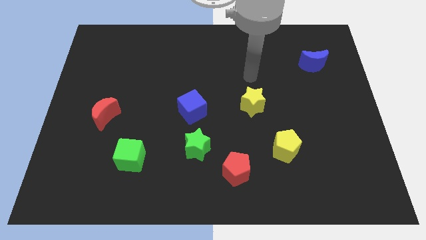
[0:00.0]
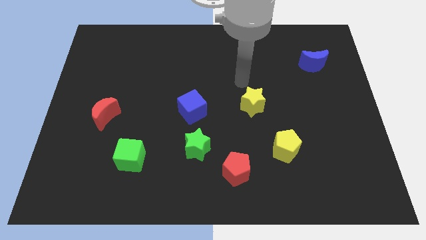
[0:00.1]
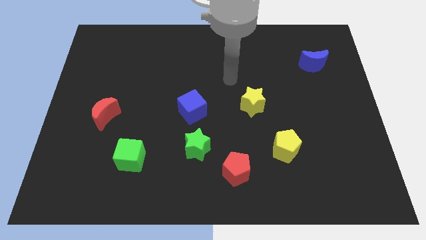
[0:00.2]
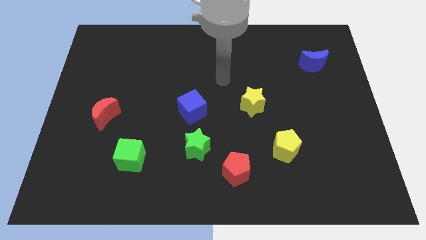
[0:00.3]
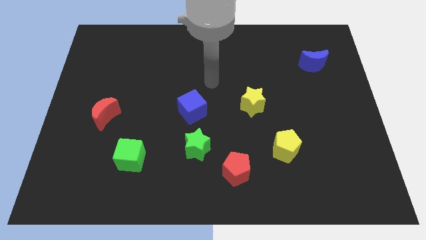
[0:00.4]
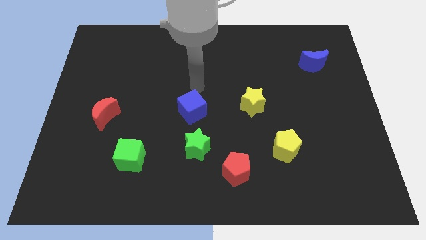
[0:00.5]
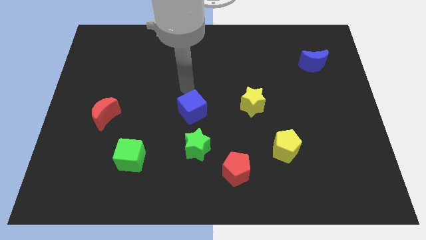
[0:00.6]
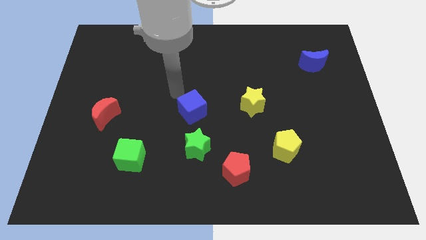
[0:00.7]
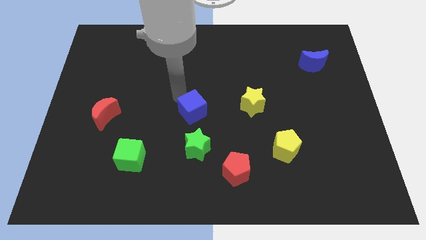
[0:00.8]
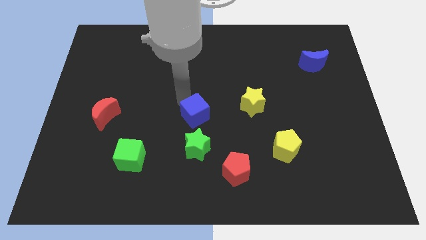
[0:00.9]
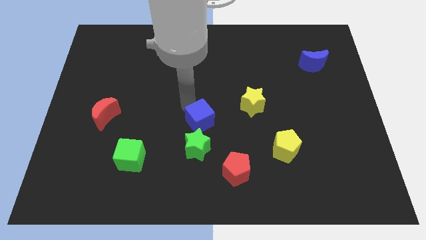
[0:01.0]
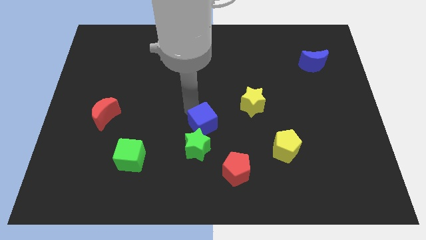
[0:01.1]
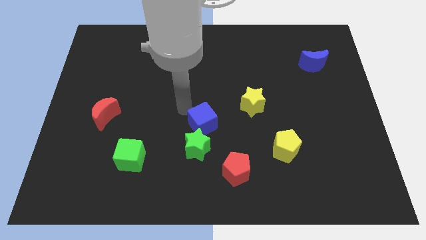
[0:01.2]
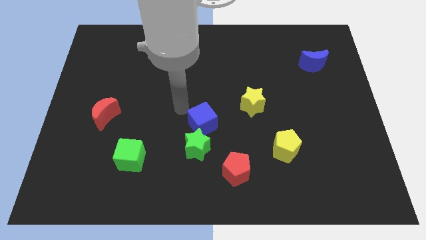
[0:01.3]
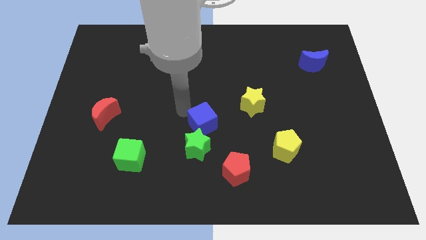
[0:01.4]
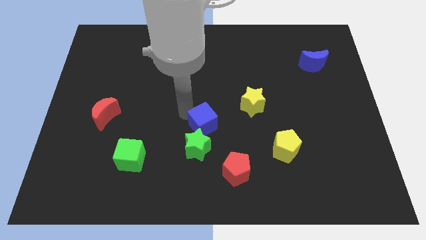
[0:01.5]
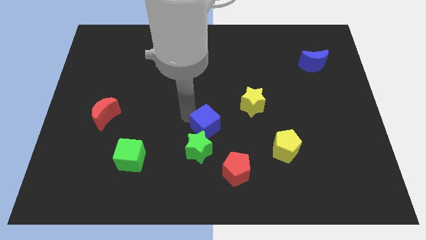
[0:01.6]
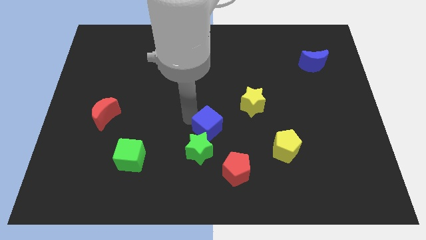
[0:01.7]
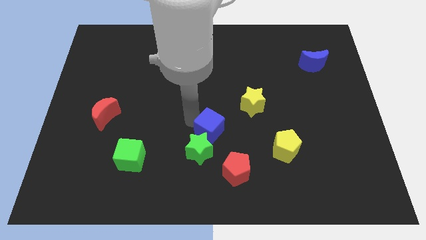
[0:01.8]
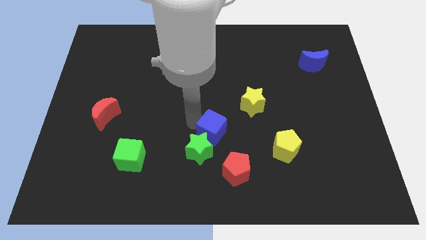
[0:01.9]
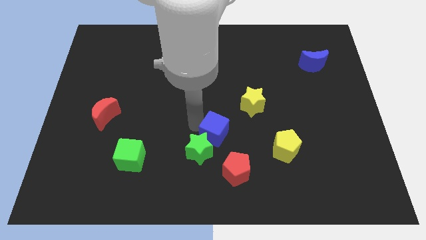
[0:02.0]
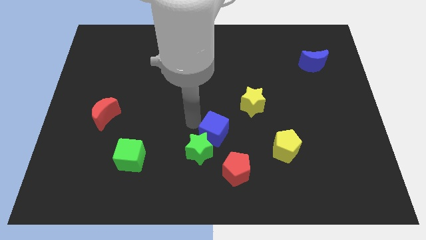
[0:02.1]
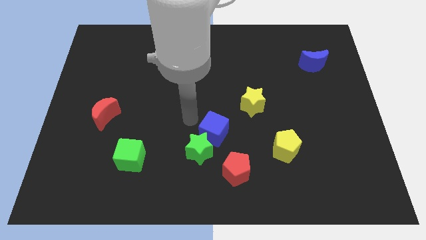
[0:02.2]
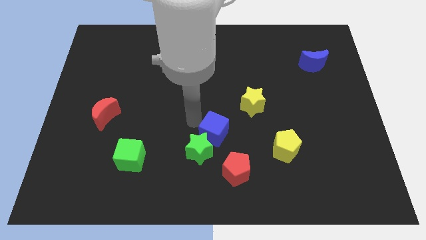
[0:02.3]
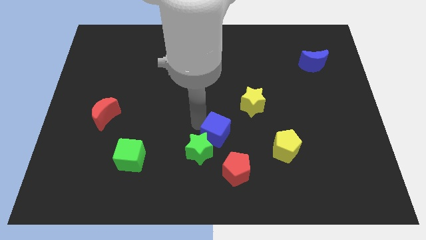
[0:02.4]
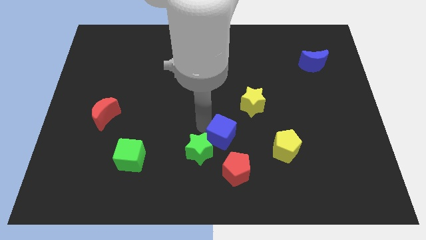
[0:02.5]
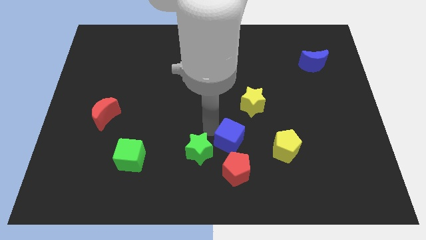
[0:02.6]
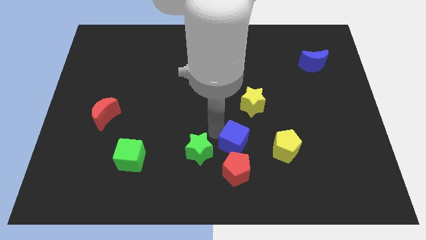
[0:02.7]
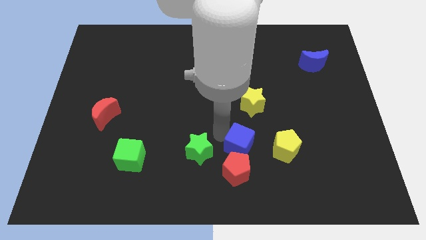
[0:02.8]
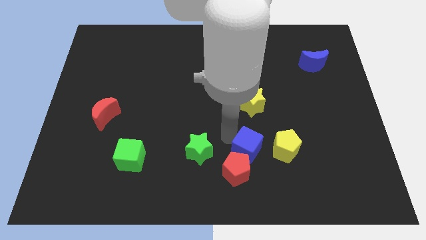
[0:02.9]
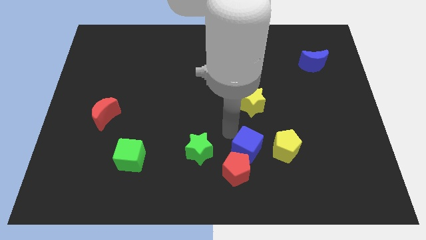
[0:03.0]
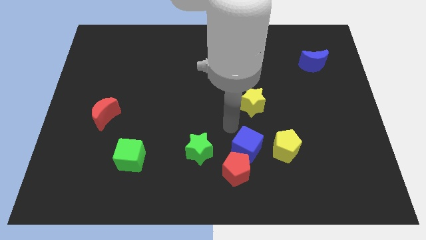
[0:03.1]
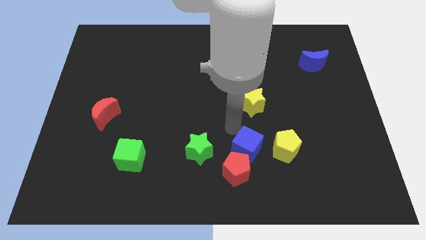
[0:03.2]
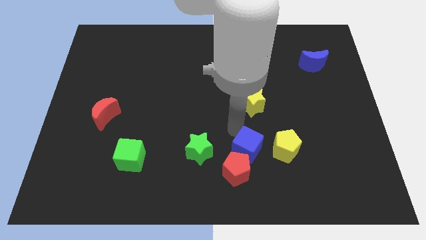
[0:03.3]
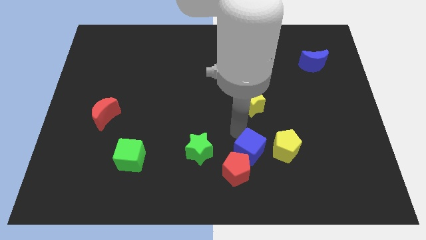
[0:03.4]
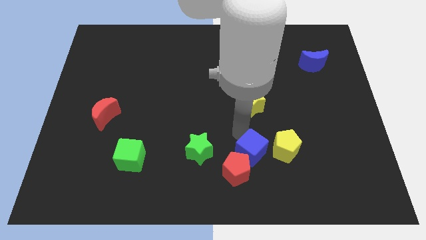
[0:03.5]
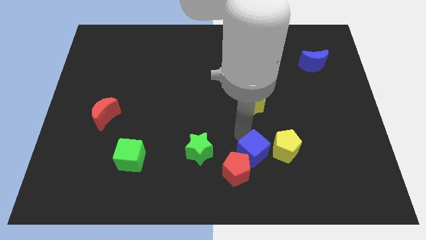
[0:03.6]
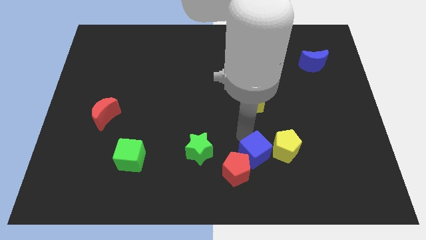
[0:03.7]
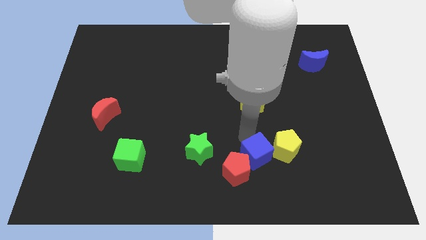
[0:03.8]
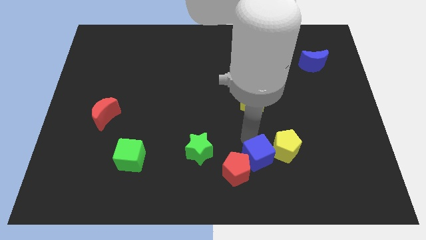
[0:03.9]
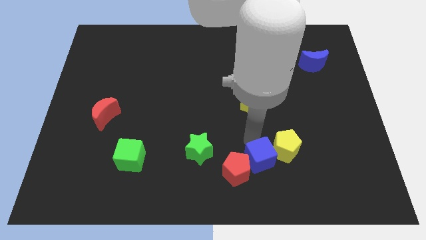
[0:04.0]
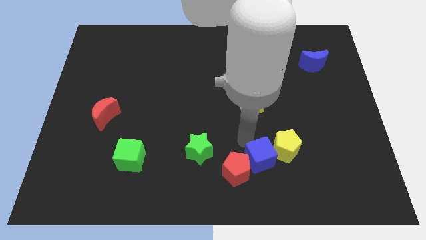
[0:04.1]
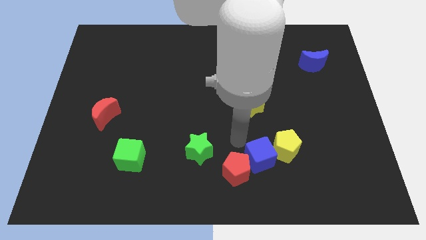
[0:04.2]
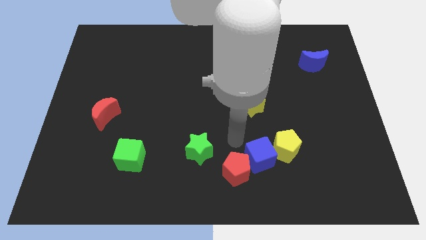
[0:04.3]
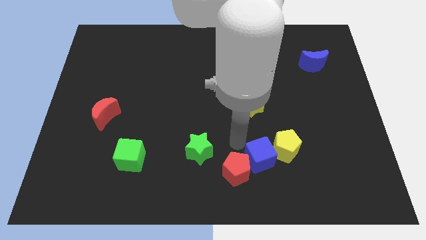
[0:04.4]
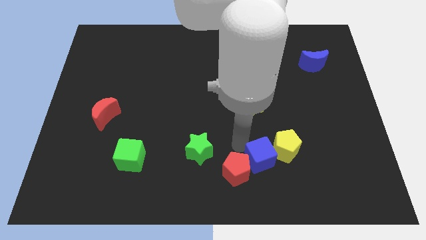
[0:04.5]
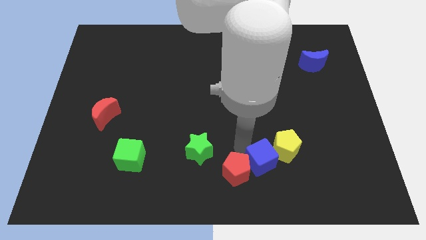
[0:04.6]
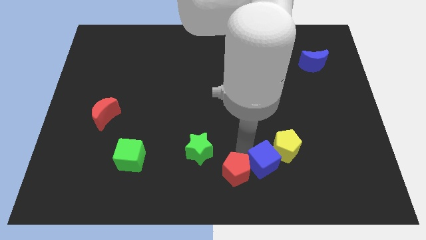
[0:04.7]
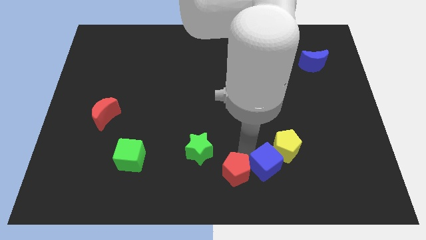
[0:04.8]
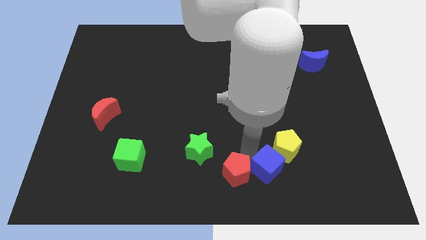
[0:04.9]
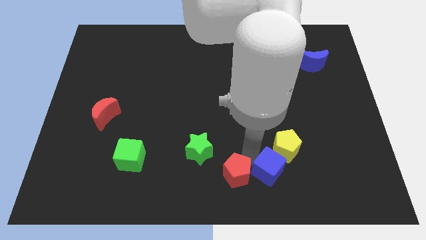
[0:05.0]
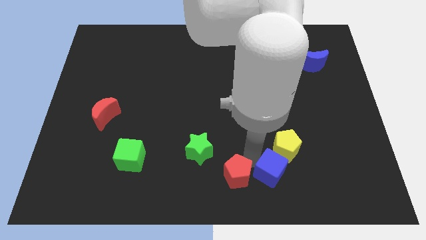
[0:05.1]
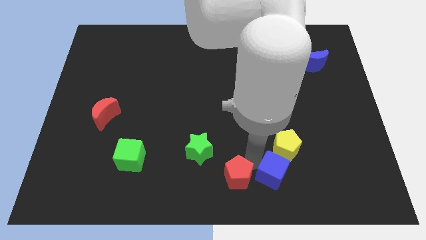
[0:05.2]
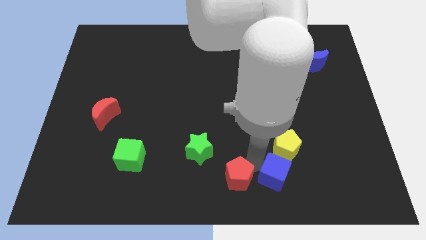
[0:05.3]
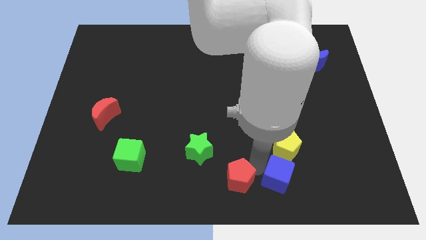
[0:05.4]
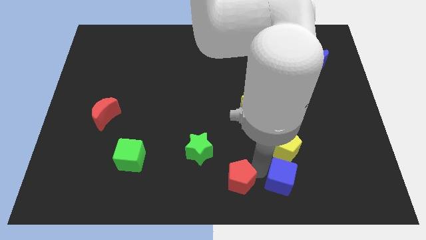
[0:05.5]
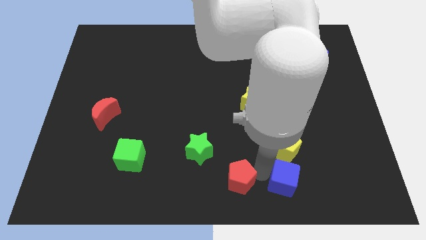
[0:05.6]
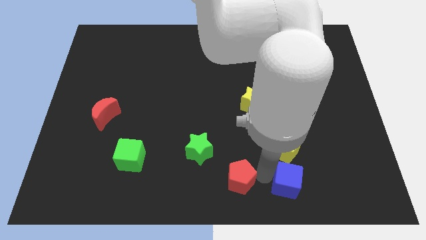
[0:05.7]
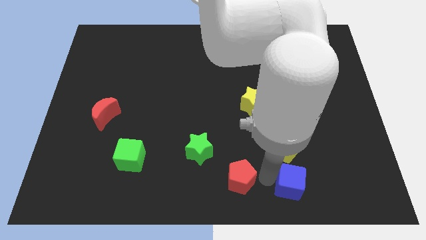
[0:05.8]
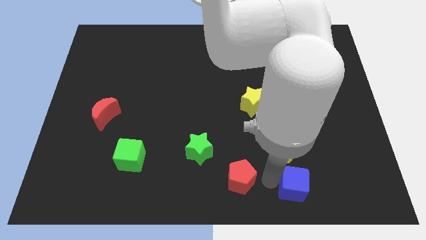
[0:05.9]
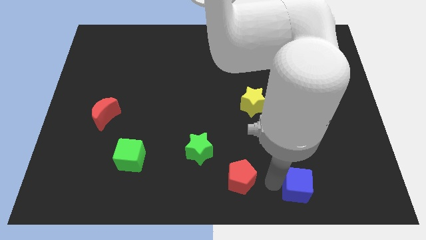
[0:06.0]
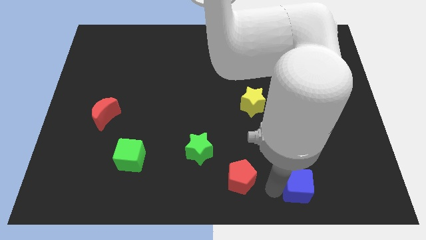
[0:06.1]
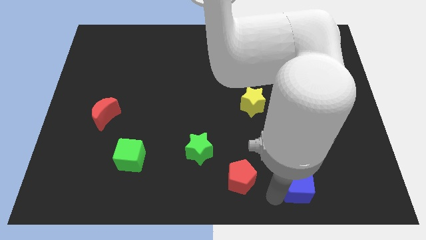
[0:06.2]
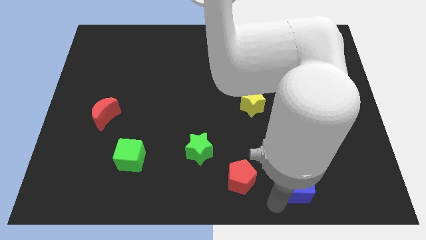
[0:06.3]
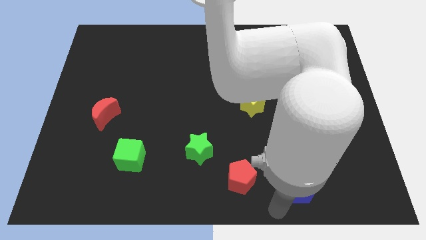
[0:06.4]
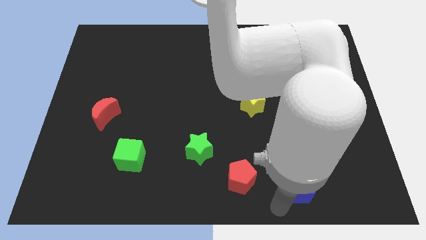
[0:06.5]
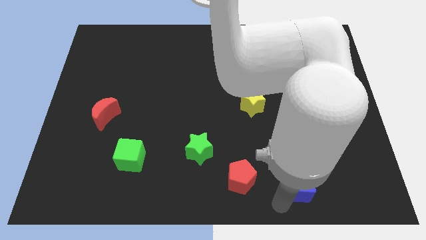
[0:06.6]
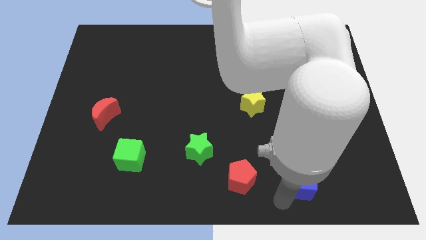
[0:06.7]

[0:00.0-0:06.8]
move the blue cube to the bottom right side of the yellow pentagon
